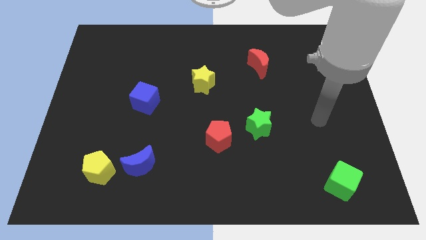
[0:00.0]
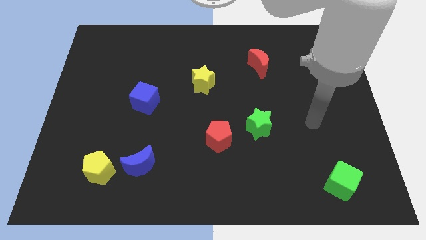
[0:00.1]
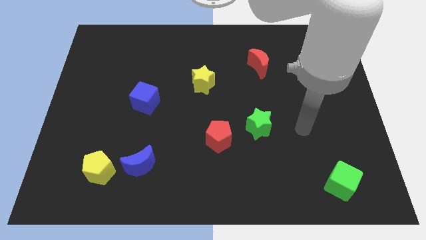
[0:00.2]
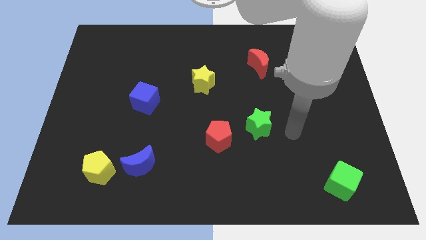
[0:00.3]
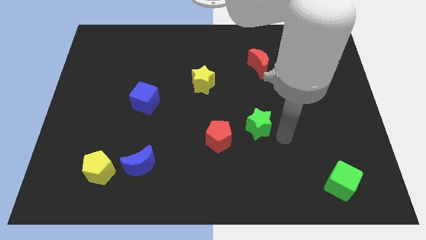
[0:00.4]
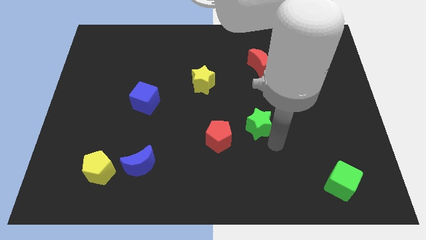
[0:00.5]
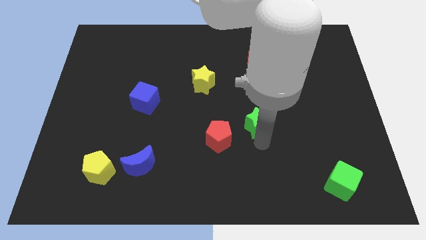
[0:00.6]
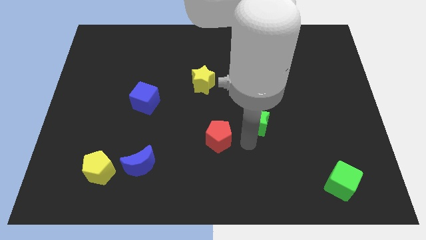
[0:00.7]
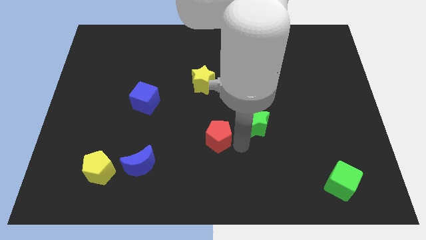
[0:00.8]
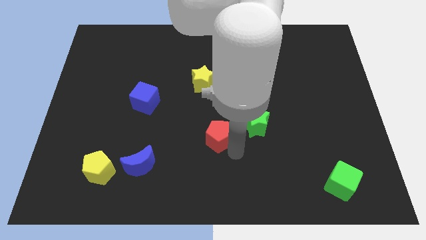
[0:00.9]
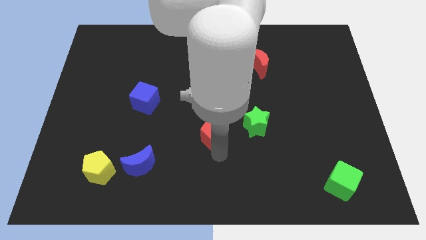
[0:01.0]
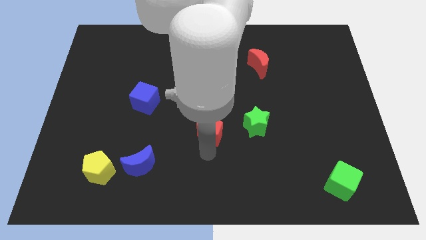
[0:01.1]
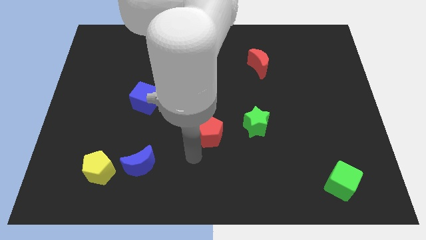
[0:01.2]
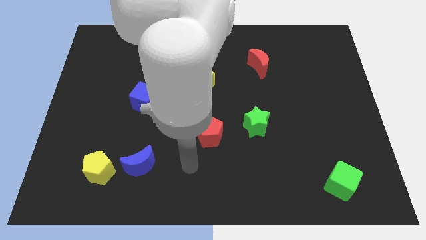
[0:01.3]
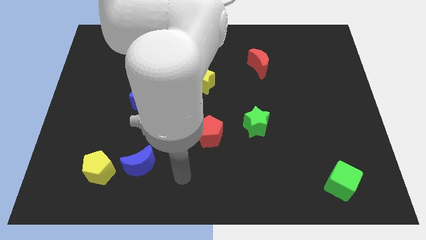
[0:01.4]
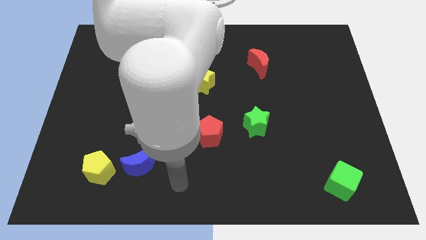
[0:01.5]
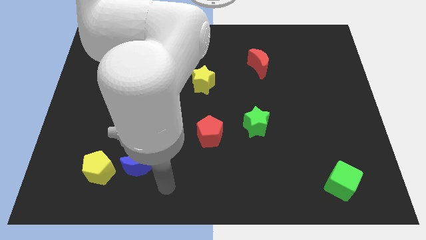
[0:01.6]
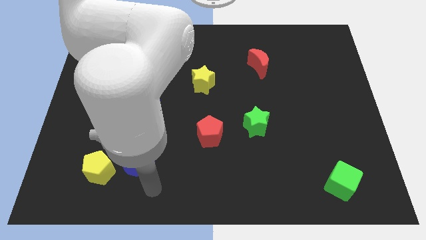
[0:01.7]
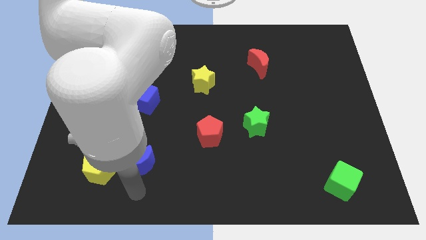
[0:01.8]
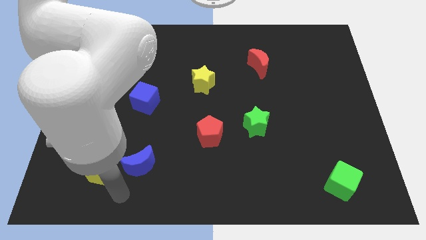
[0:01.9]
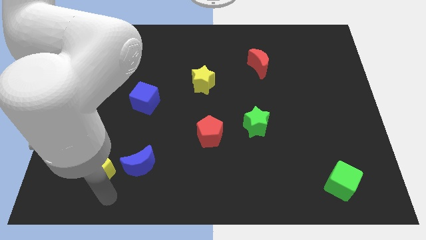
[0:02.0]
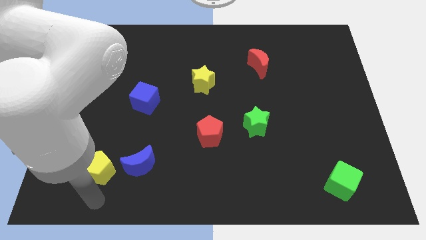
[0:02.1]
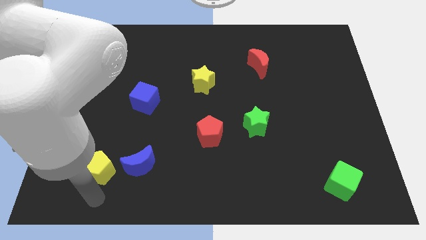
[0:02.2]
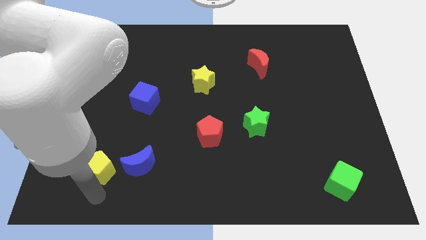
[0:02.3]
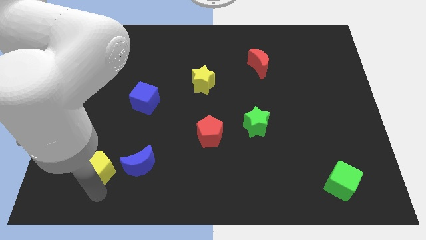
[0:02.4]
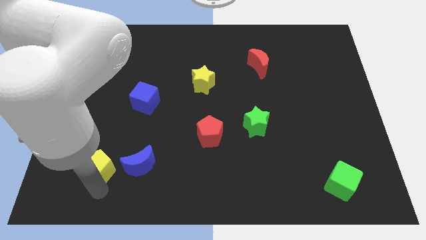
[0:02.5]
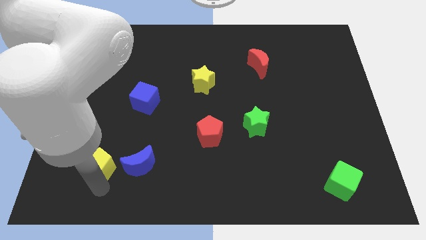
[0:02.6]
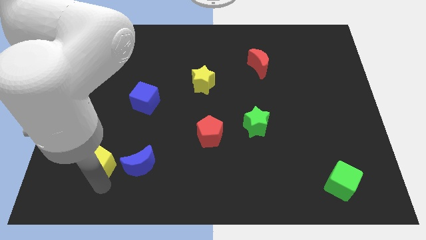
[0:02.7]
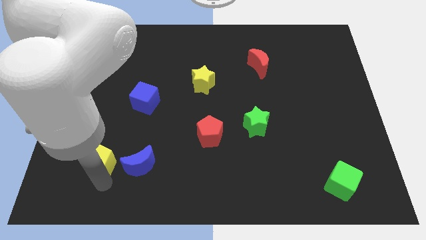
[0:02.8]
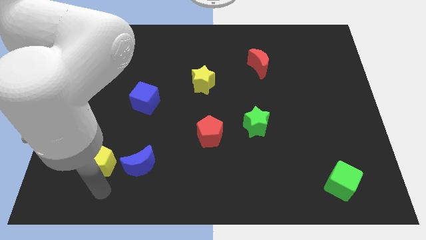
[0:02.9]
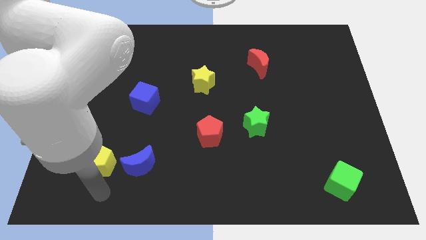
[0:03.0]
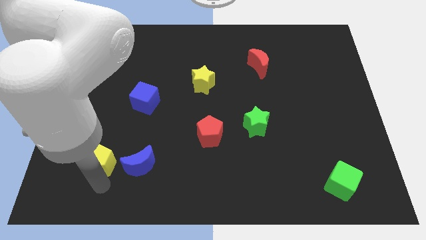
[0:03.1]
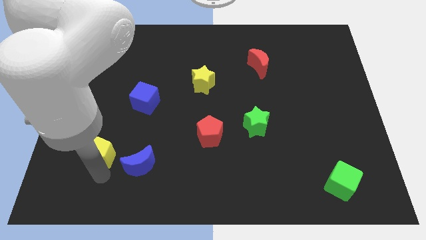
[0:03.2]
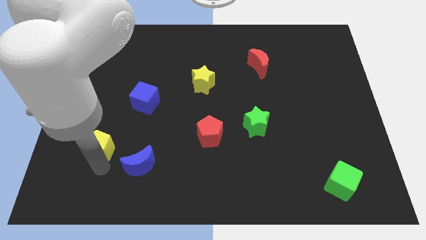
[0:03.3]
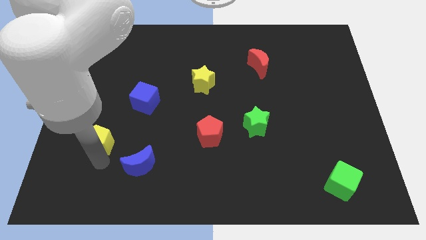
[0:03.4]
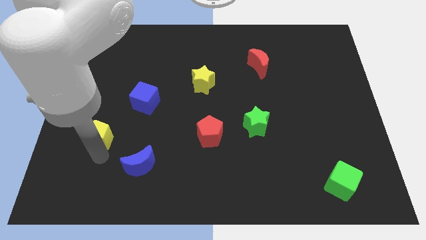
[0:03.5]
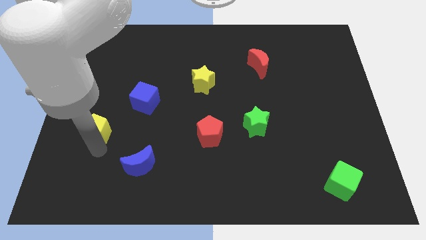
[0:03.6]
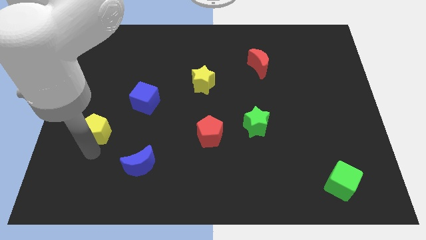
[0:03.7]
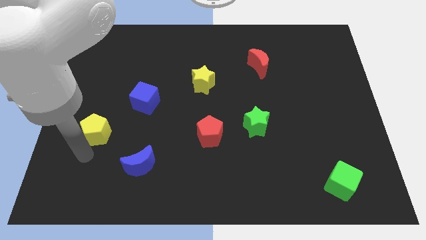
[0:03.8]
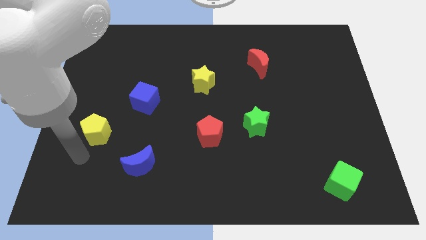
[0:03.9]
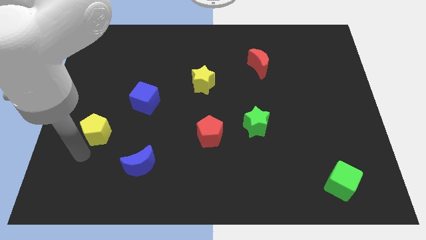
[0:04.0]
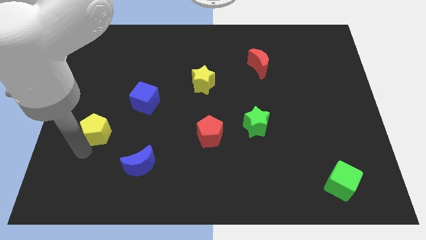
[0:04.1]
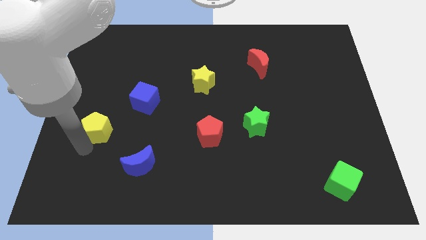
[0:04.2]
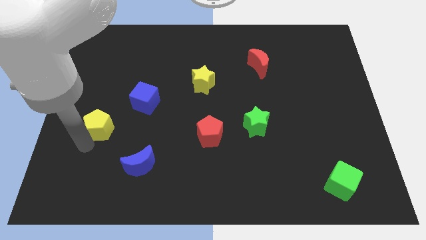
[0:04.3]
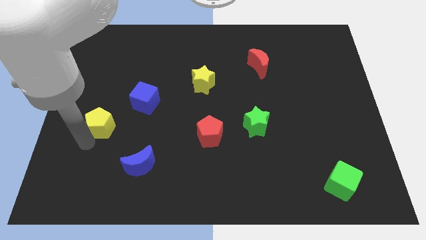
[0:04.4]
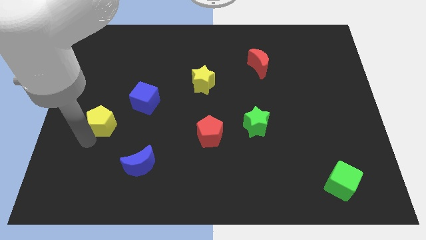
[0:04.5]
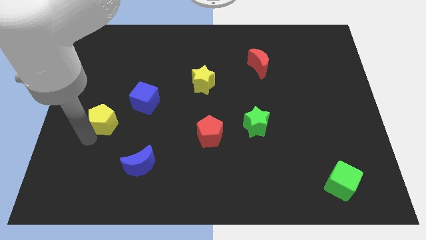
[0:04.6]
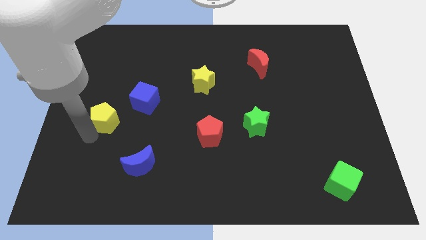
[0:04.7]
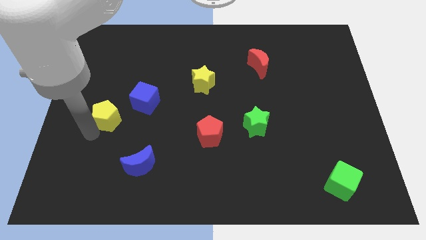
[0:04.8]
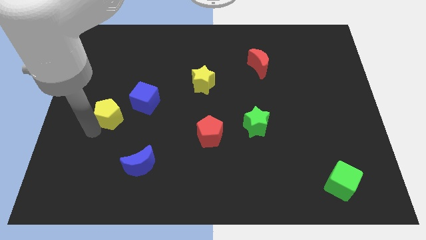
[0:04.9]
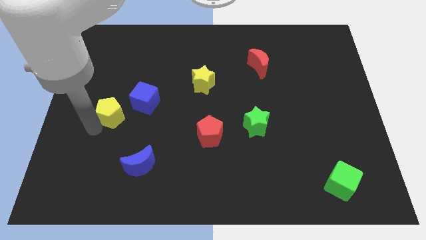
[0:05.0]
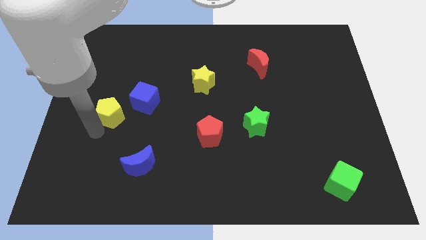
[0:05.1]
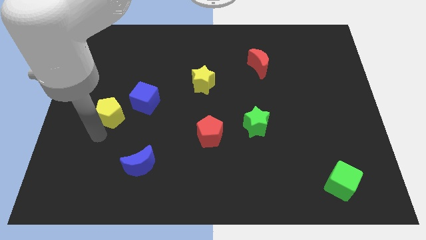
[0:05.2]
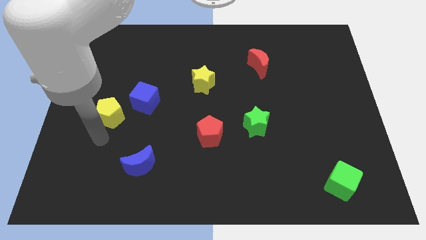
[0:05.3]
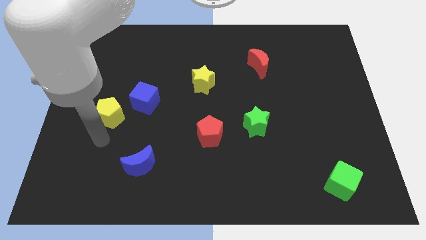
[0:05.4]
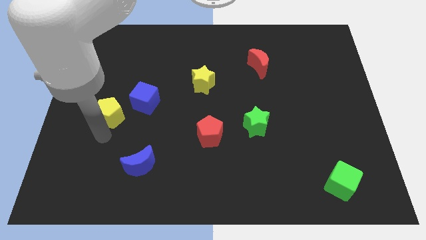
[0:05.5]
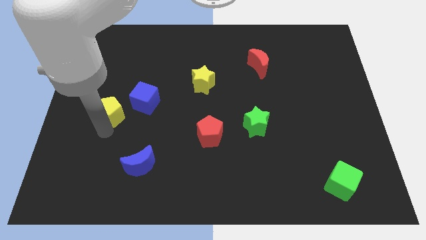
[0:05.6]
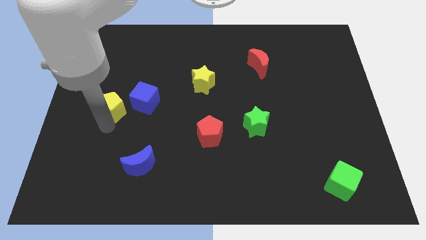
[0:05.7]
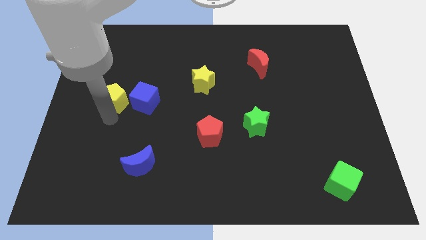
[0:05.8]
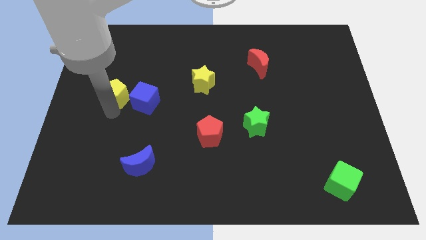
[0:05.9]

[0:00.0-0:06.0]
push the yellow pentagon up

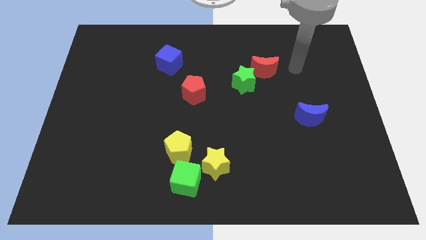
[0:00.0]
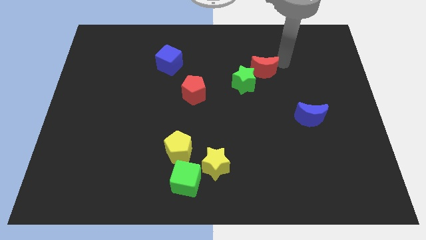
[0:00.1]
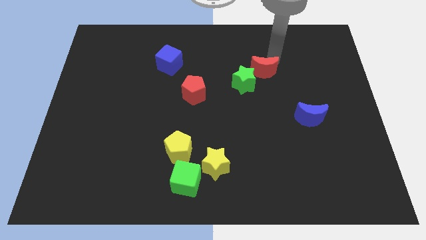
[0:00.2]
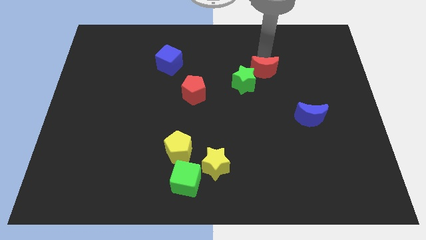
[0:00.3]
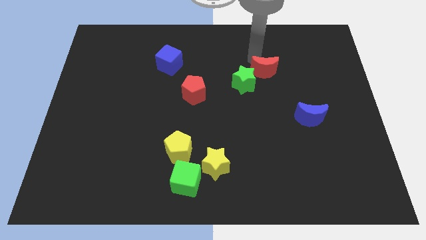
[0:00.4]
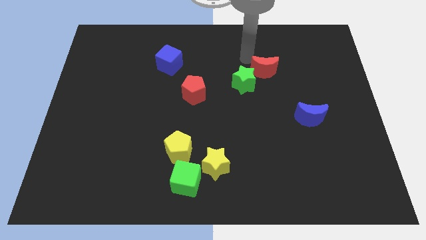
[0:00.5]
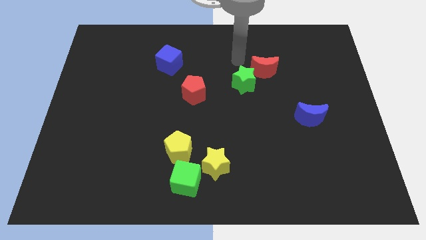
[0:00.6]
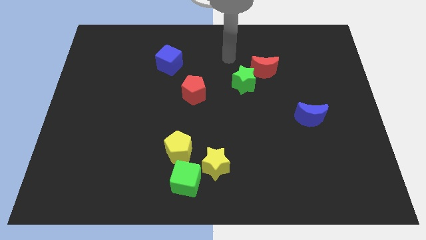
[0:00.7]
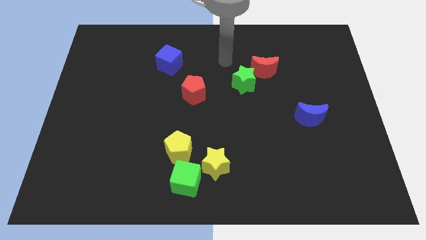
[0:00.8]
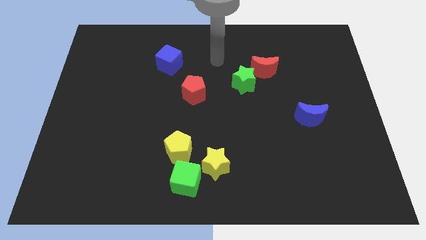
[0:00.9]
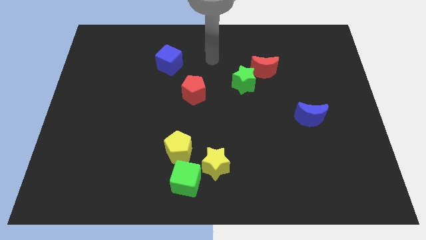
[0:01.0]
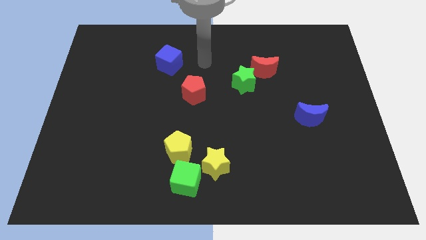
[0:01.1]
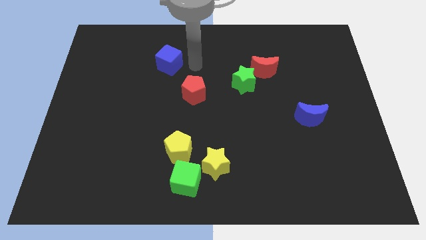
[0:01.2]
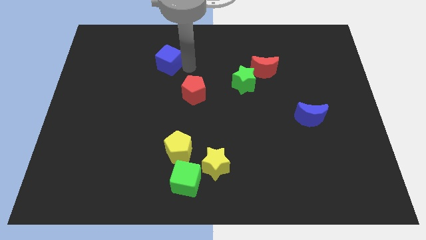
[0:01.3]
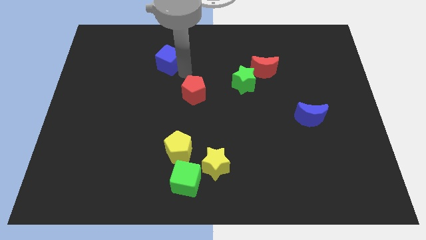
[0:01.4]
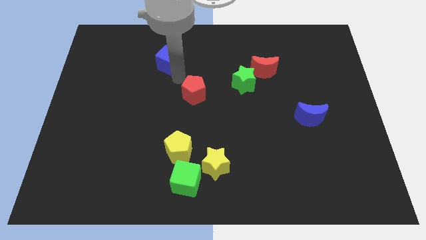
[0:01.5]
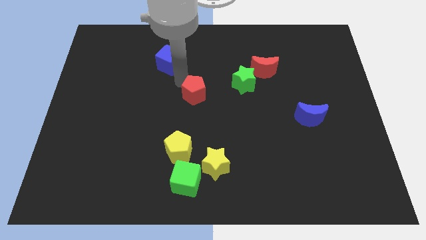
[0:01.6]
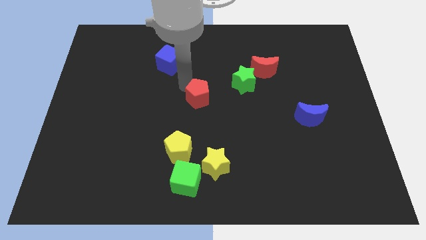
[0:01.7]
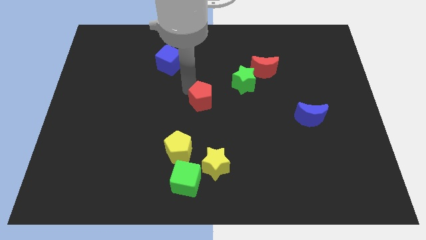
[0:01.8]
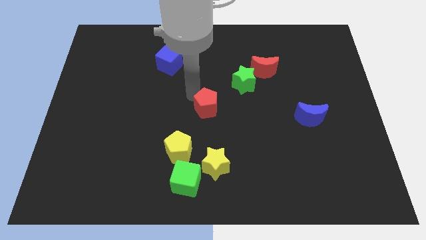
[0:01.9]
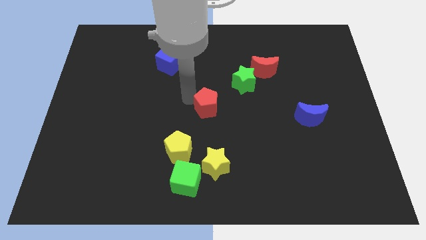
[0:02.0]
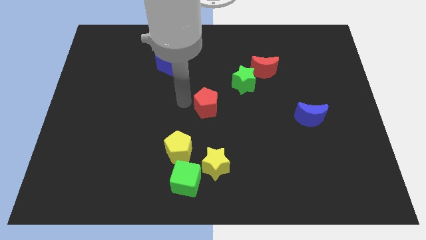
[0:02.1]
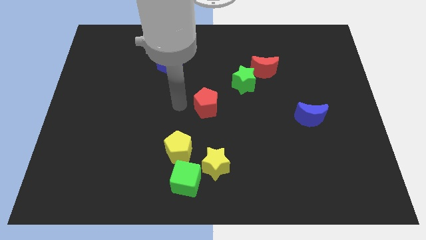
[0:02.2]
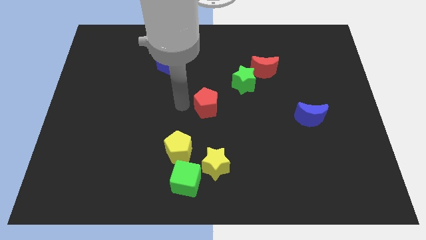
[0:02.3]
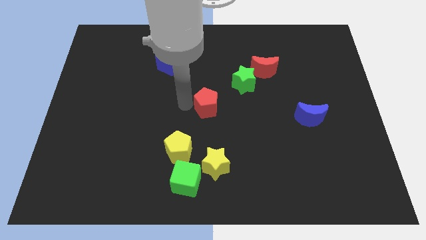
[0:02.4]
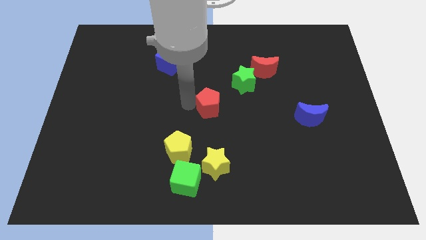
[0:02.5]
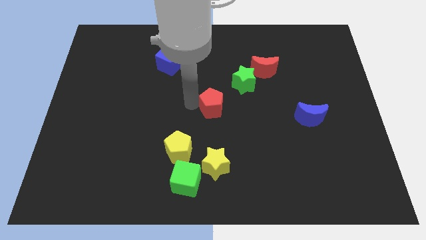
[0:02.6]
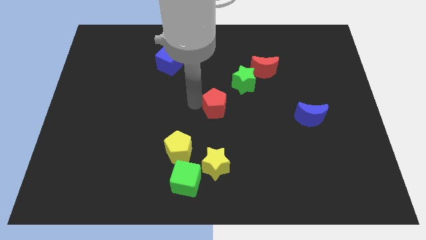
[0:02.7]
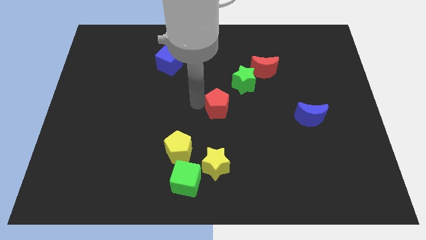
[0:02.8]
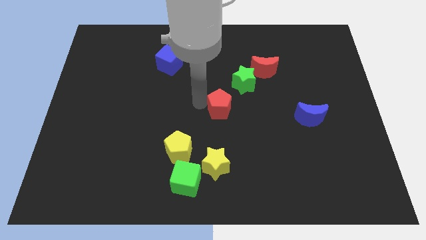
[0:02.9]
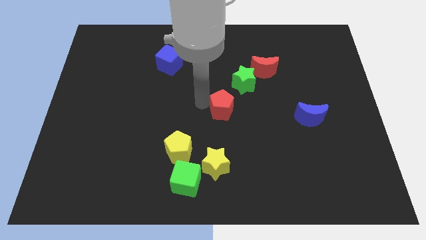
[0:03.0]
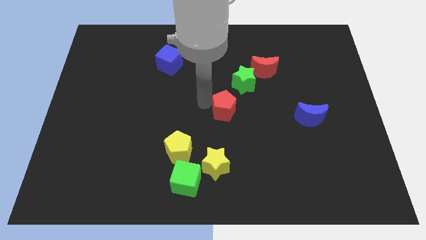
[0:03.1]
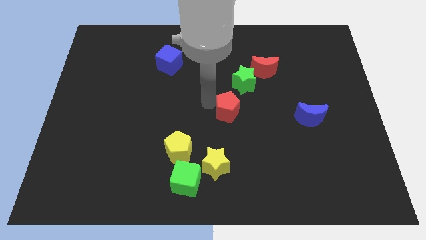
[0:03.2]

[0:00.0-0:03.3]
slightly move the red pentagon right
